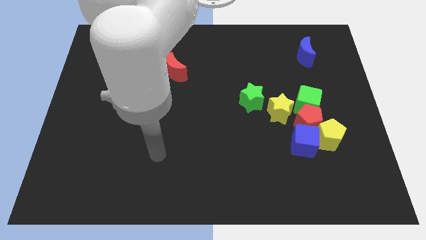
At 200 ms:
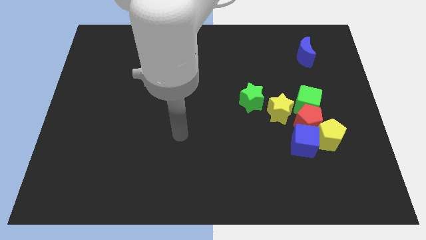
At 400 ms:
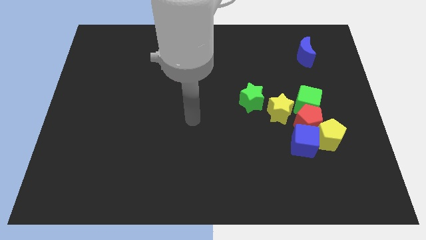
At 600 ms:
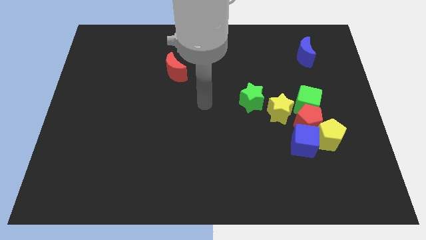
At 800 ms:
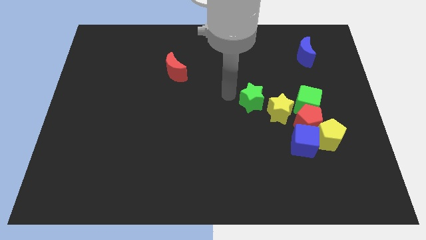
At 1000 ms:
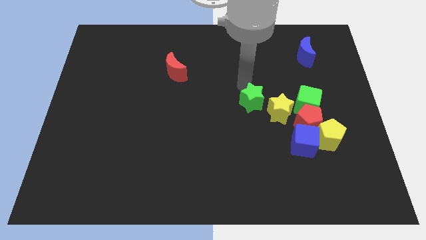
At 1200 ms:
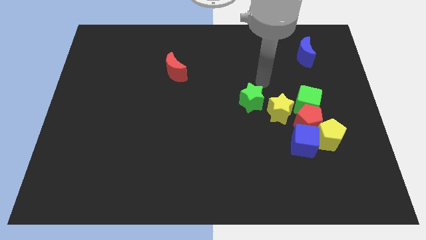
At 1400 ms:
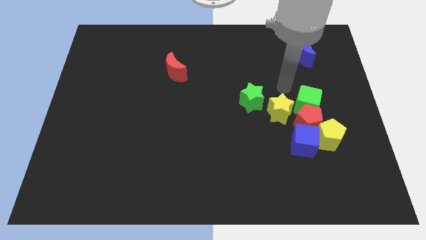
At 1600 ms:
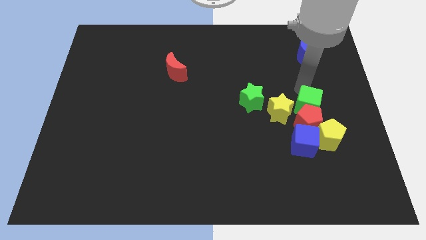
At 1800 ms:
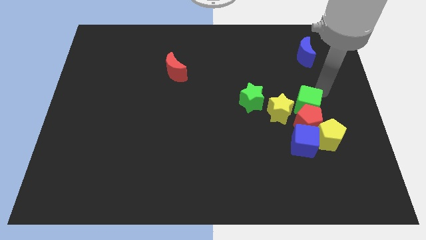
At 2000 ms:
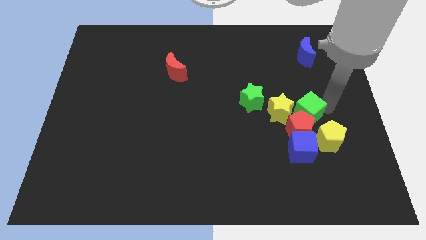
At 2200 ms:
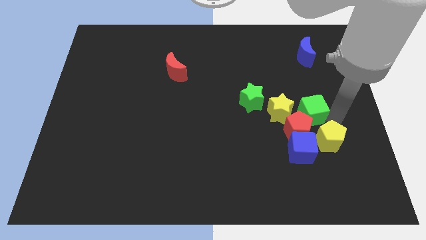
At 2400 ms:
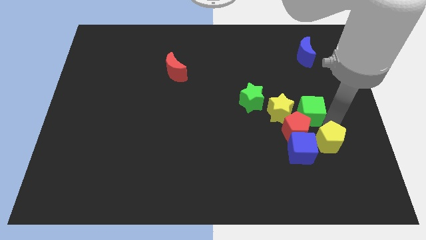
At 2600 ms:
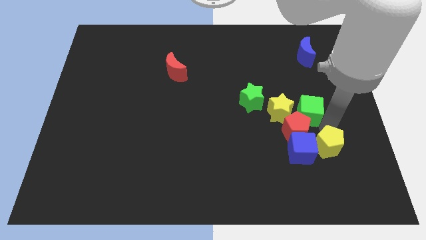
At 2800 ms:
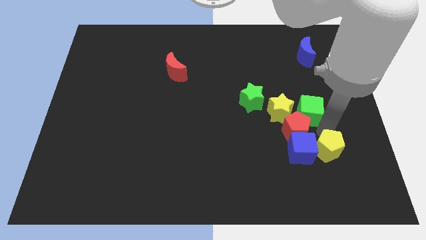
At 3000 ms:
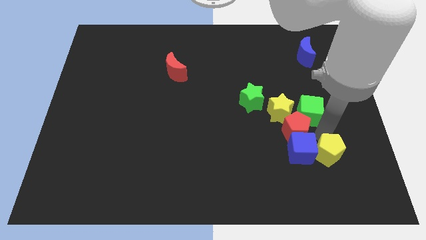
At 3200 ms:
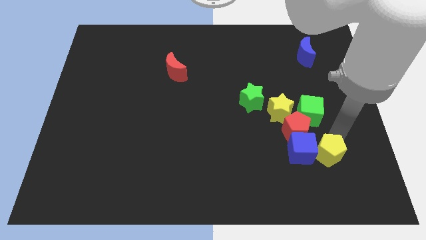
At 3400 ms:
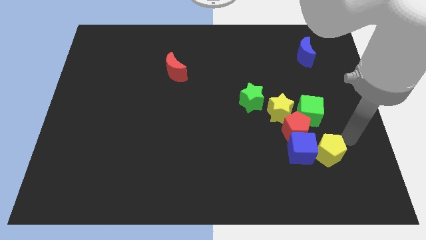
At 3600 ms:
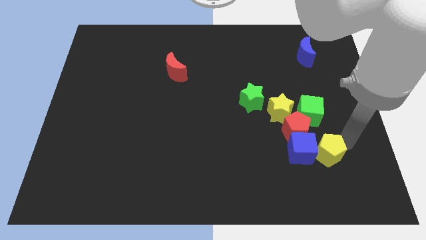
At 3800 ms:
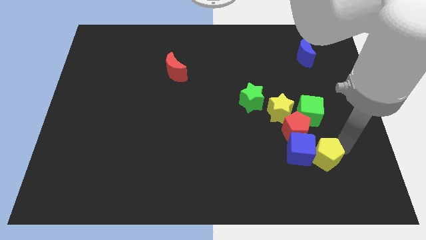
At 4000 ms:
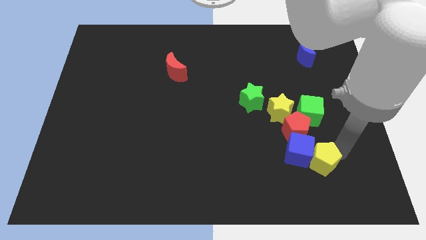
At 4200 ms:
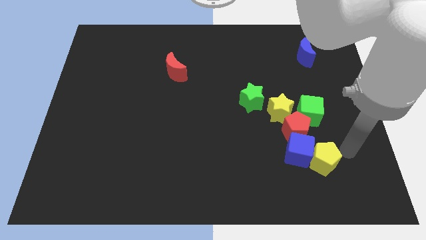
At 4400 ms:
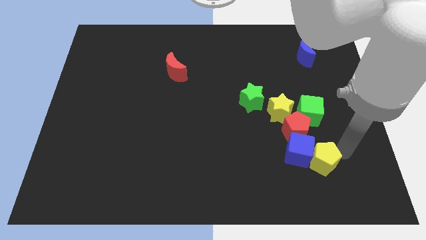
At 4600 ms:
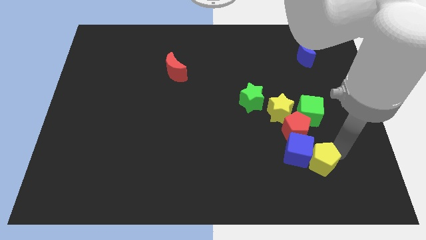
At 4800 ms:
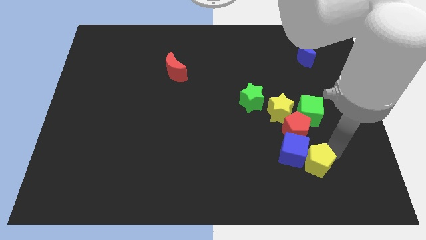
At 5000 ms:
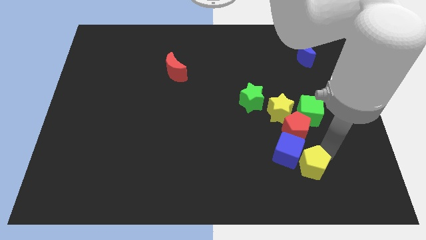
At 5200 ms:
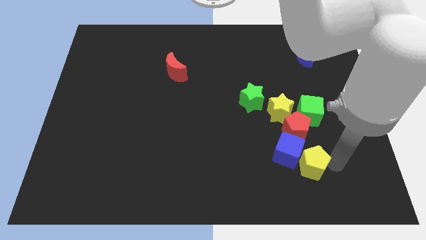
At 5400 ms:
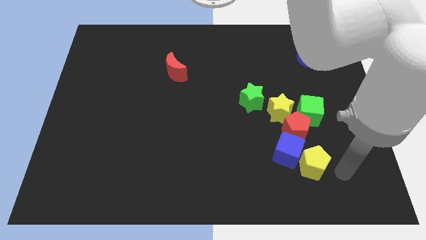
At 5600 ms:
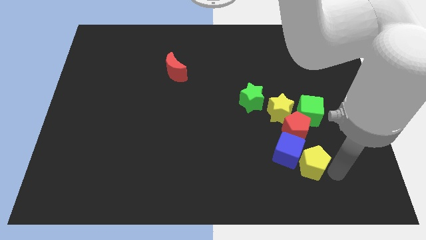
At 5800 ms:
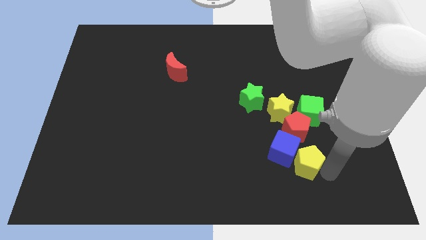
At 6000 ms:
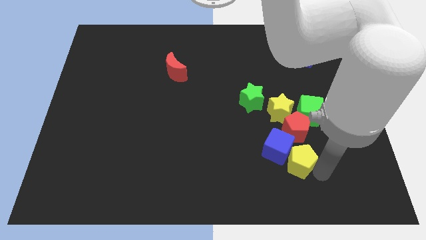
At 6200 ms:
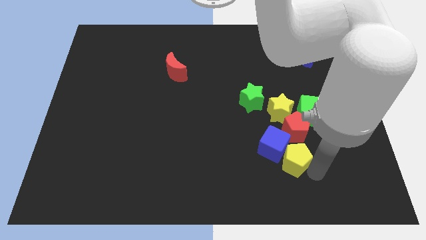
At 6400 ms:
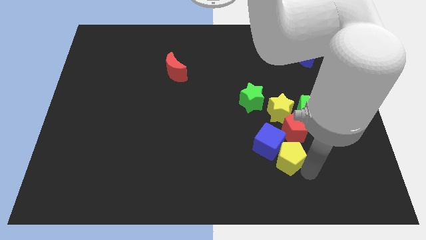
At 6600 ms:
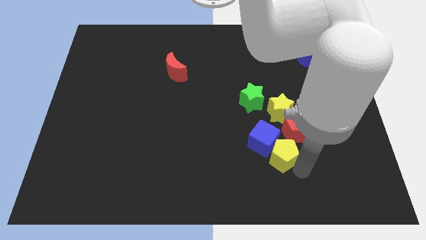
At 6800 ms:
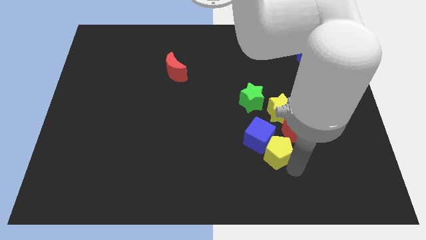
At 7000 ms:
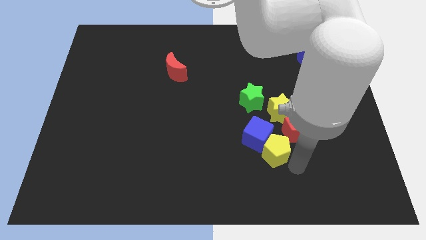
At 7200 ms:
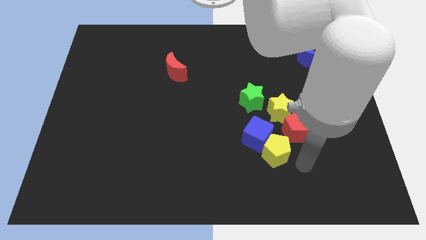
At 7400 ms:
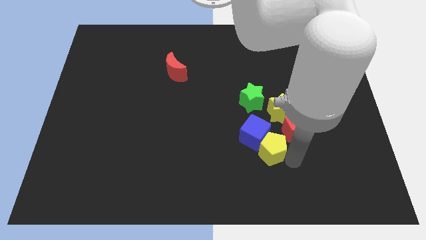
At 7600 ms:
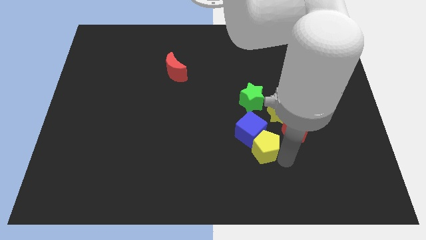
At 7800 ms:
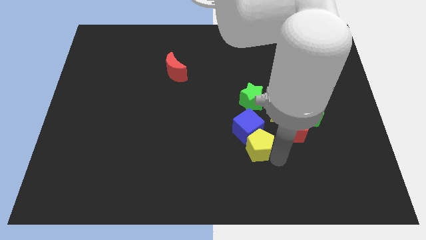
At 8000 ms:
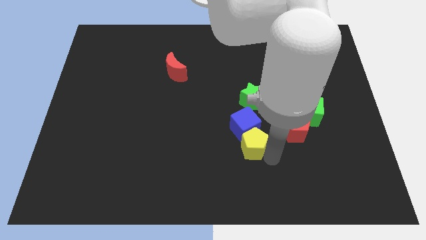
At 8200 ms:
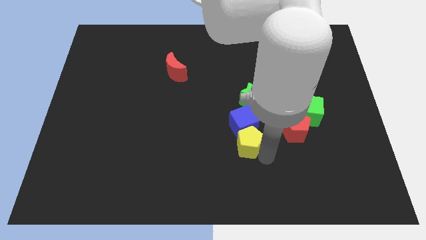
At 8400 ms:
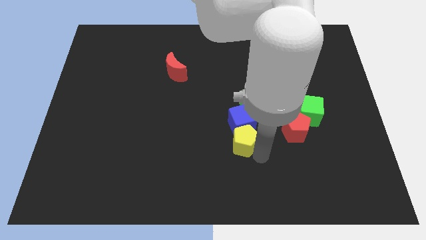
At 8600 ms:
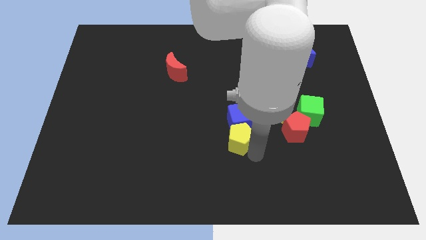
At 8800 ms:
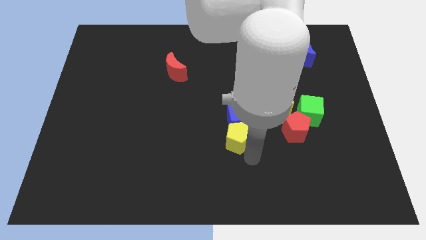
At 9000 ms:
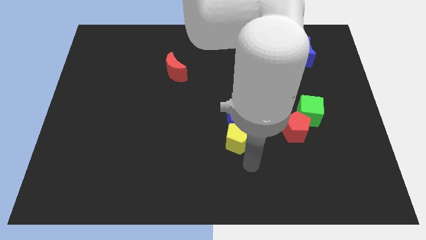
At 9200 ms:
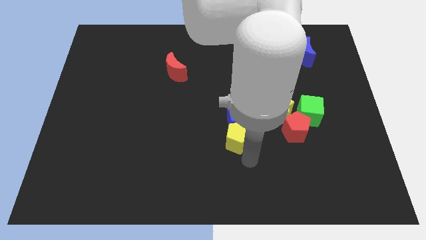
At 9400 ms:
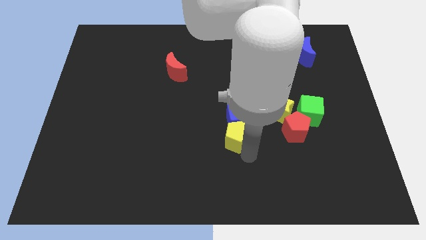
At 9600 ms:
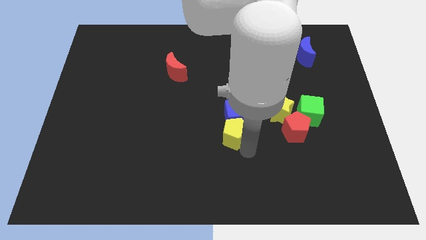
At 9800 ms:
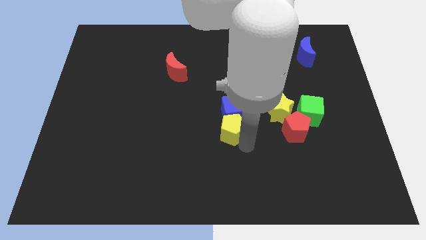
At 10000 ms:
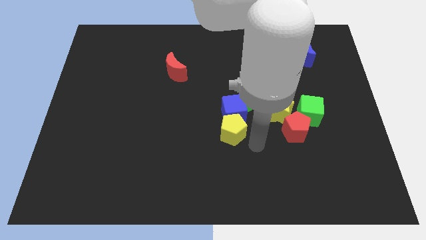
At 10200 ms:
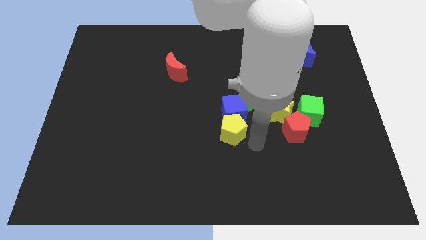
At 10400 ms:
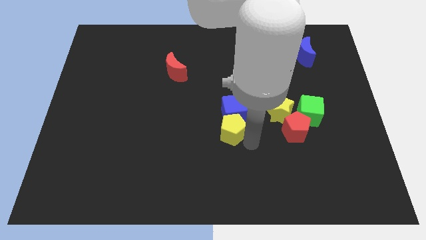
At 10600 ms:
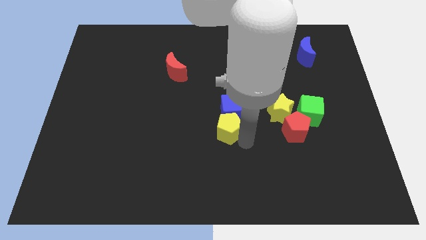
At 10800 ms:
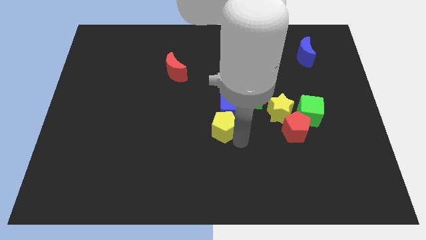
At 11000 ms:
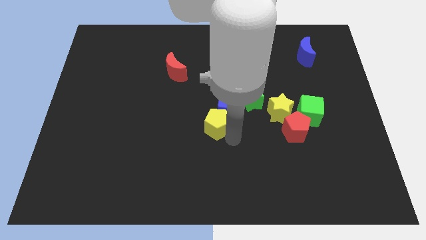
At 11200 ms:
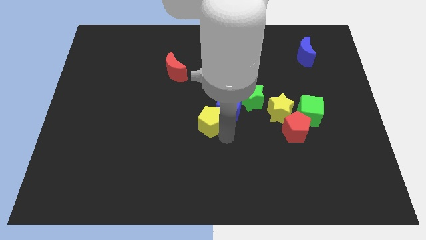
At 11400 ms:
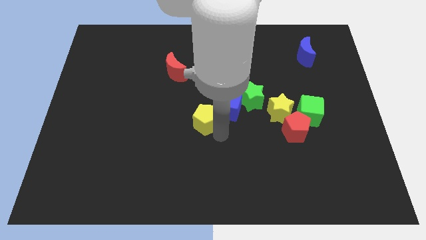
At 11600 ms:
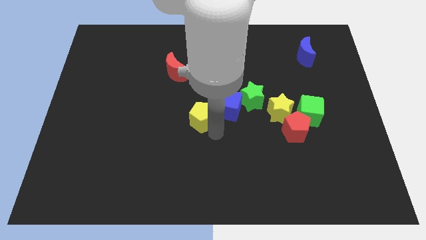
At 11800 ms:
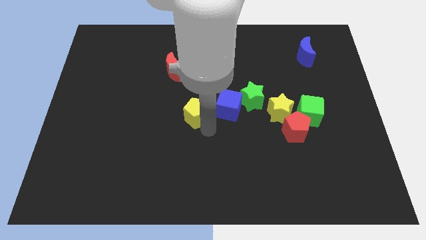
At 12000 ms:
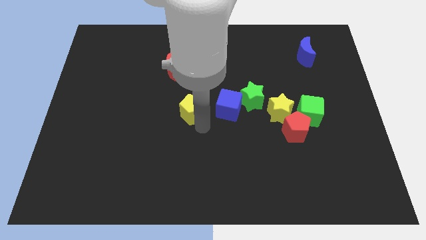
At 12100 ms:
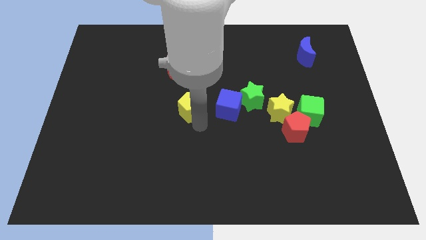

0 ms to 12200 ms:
push the yellow pentagon to the bottom of the red moon
